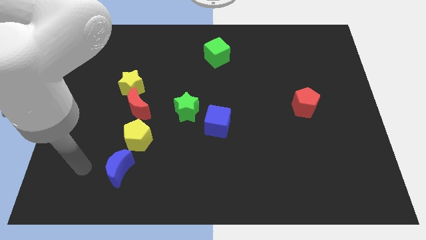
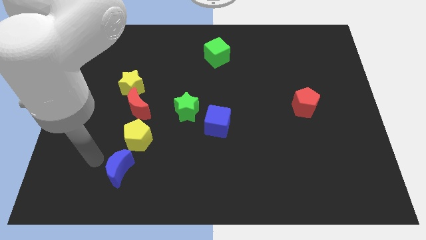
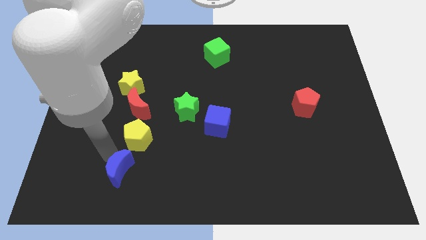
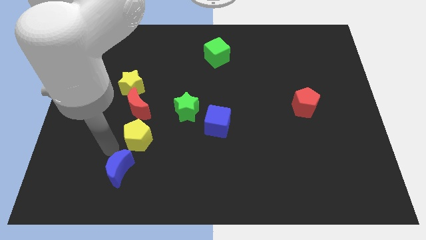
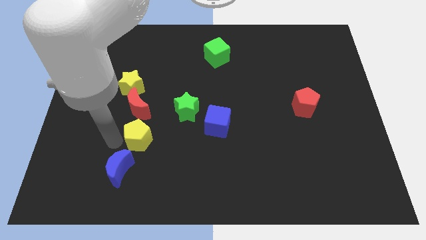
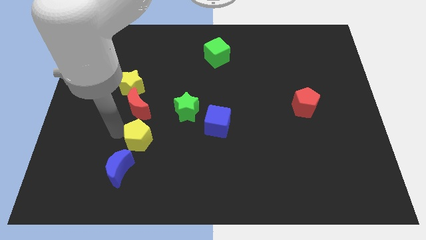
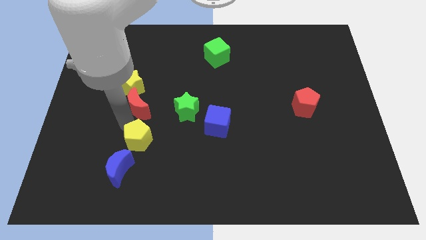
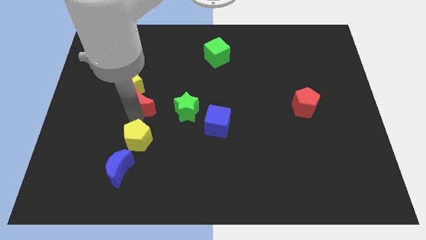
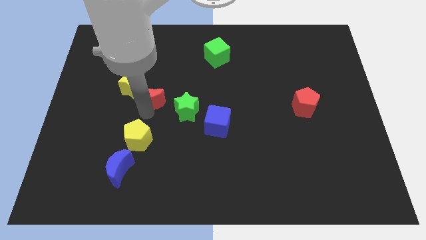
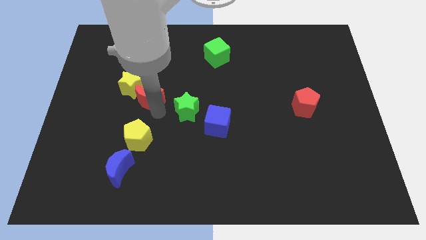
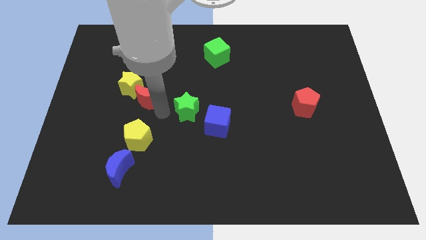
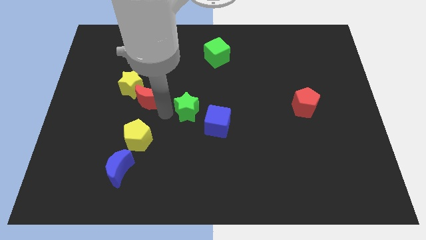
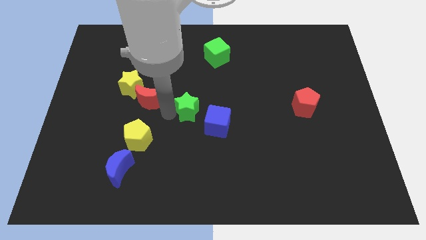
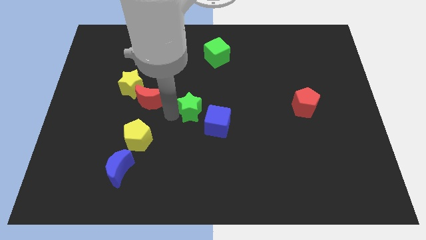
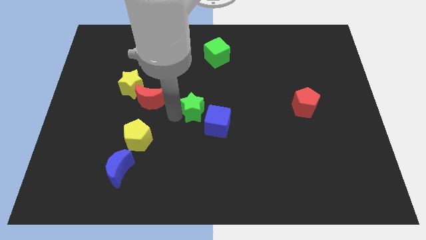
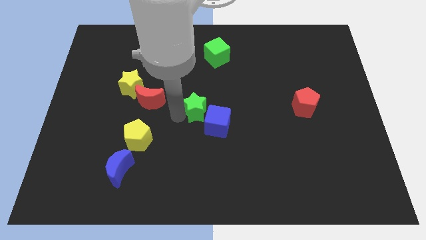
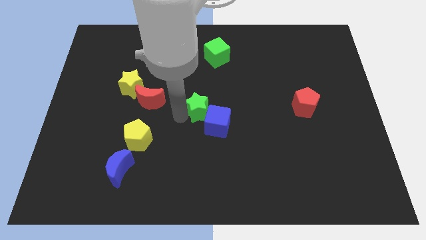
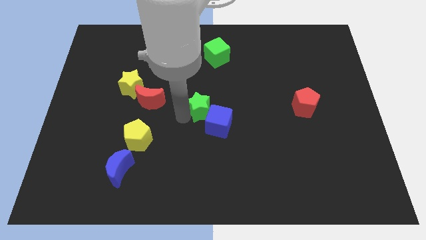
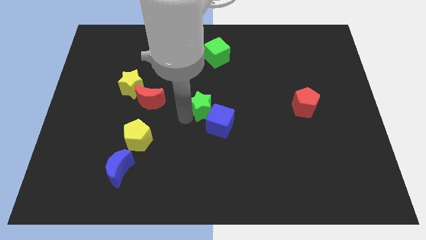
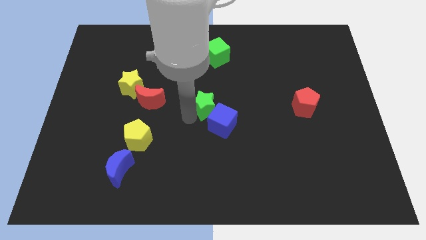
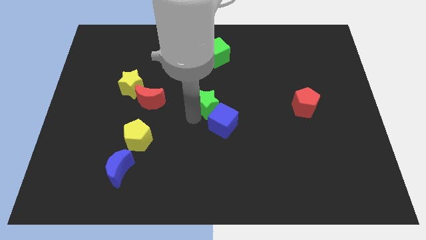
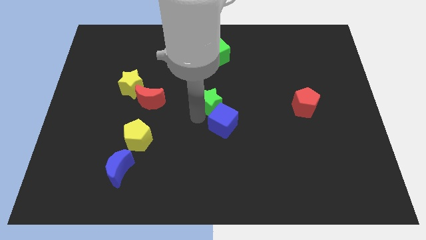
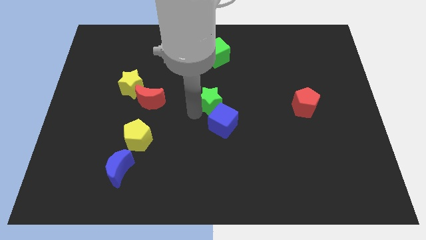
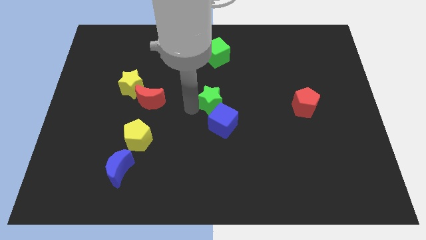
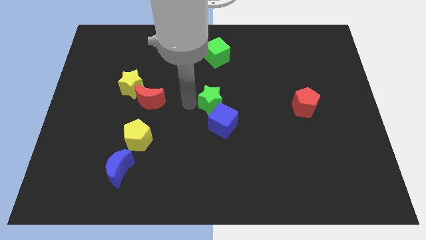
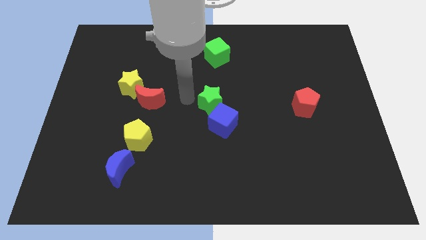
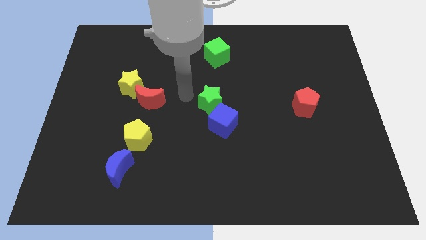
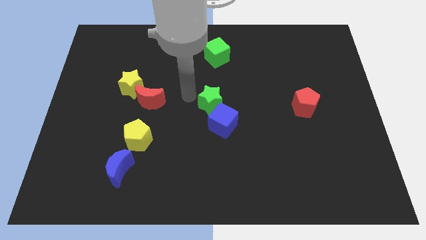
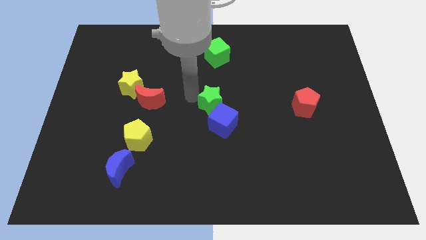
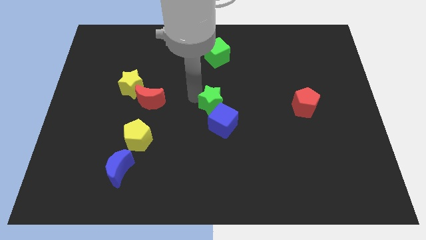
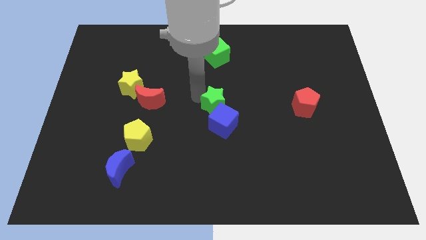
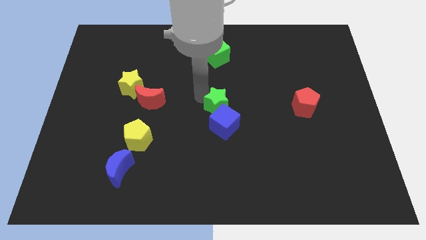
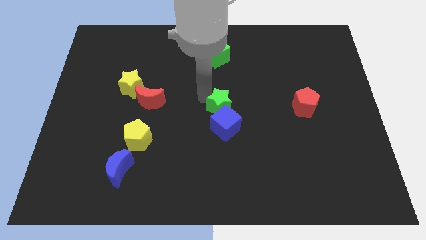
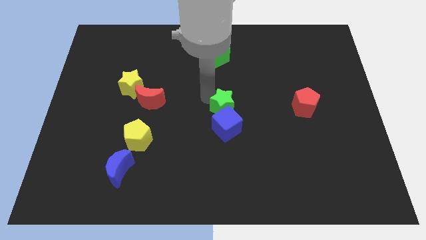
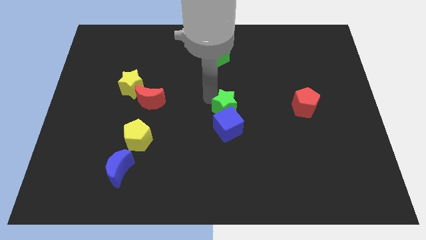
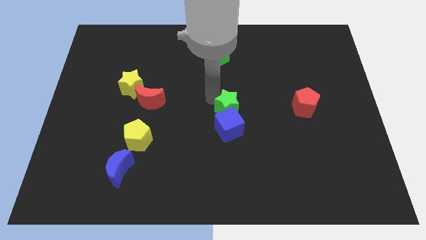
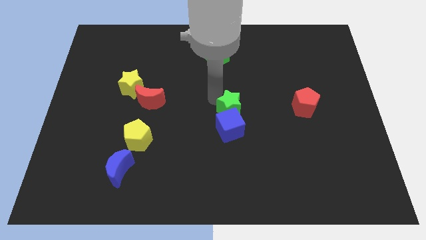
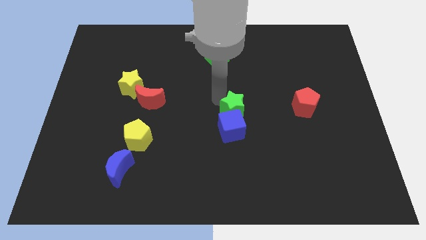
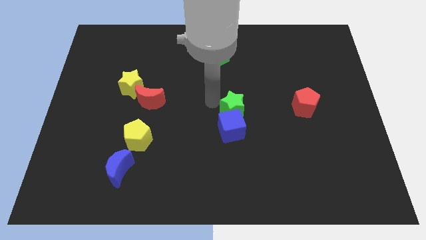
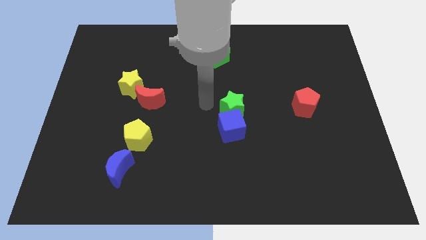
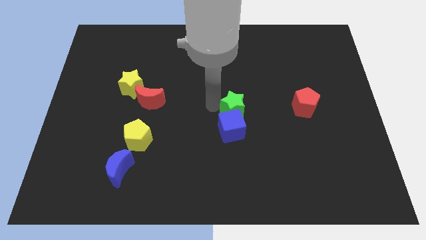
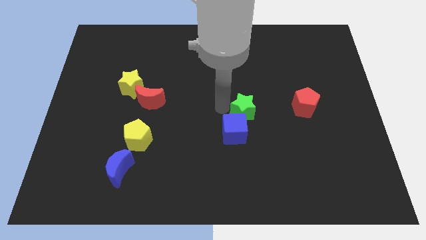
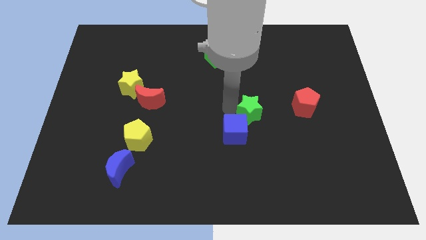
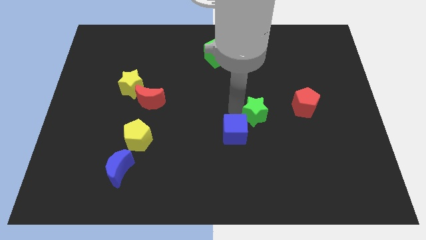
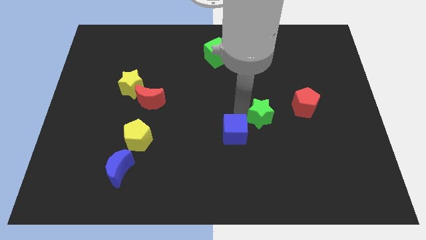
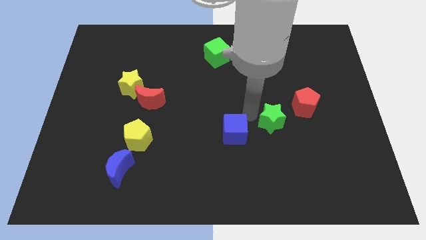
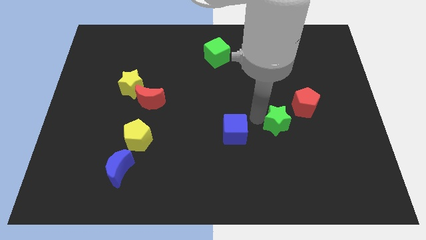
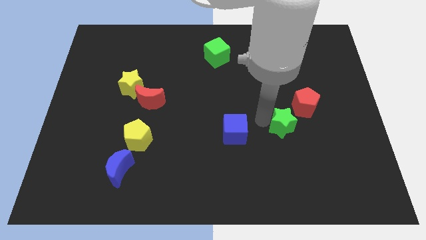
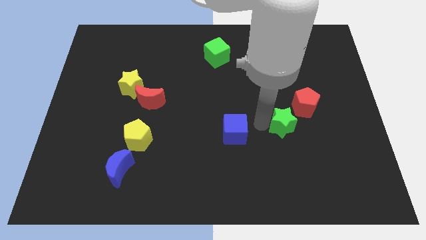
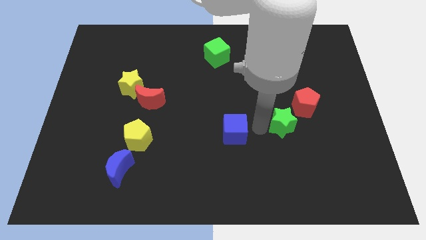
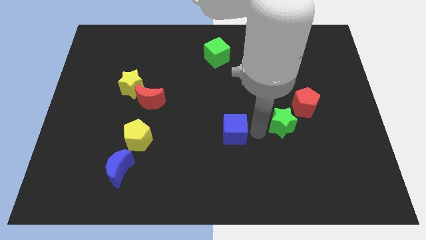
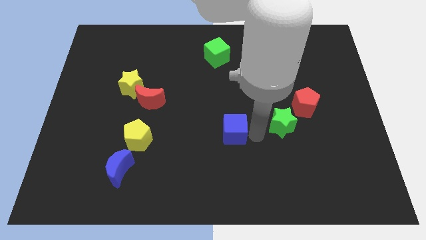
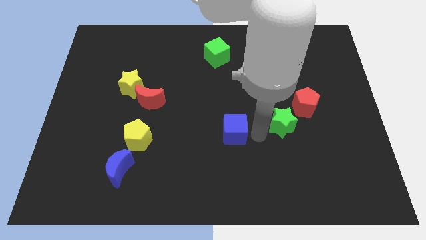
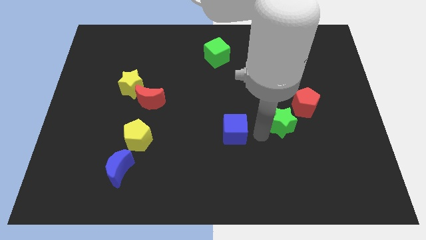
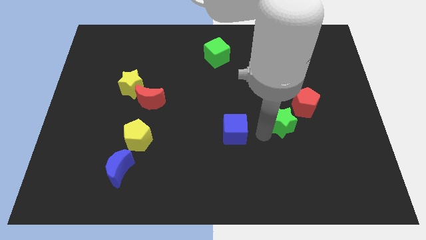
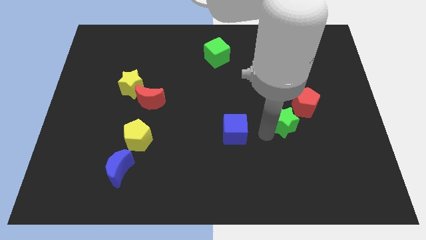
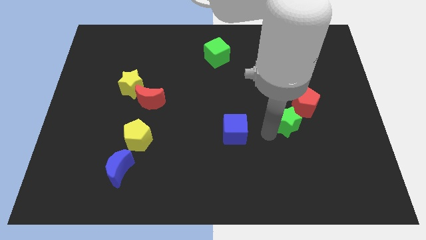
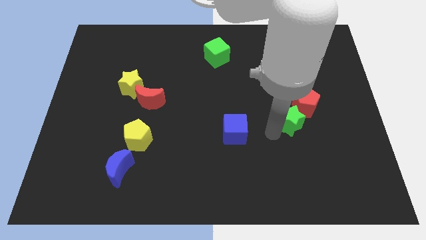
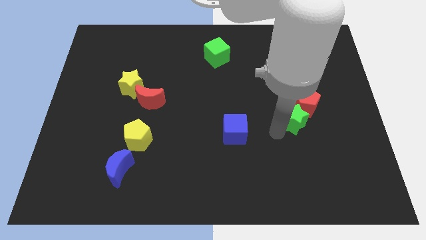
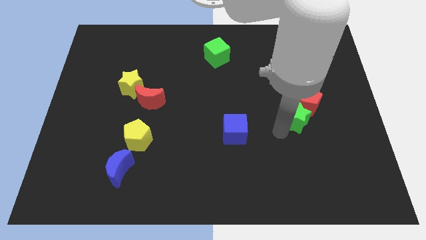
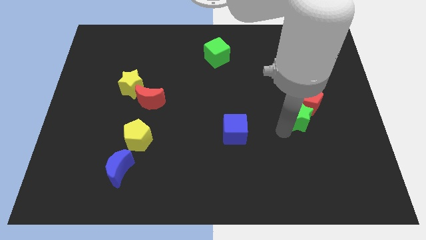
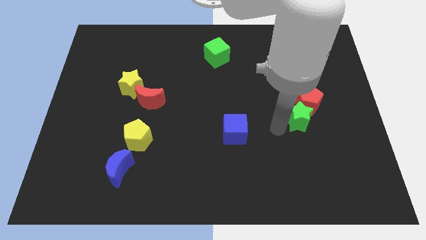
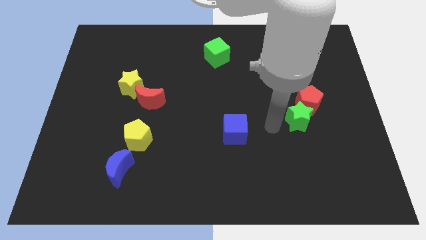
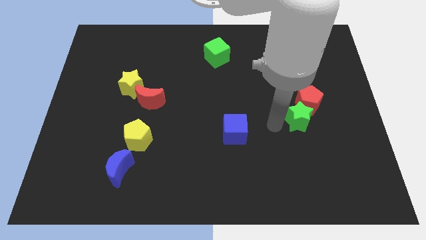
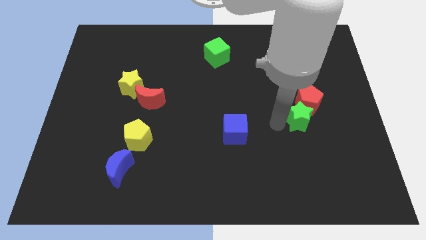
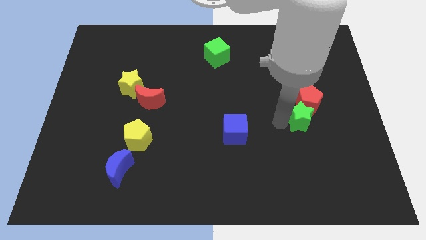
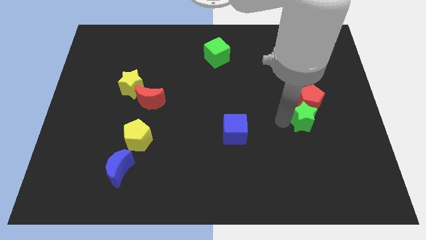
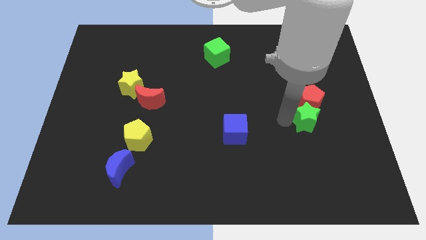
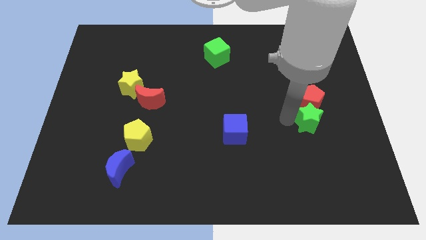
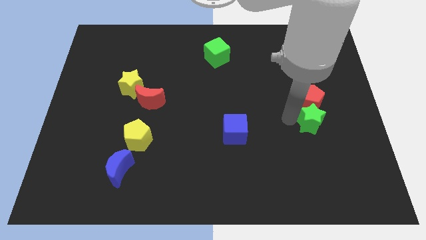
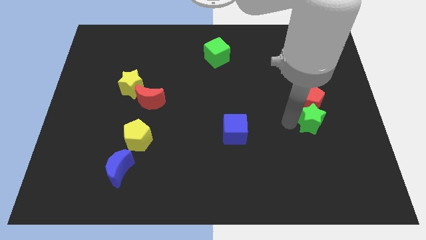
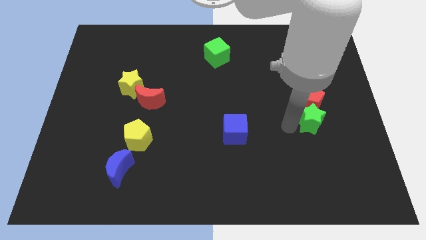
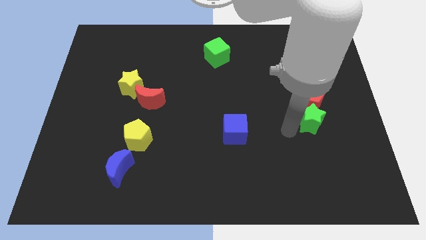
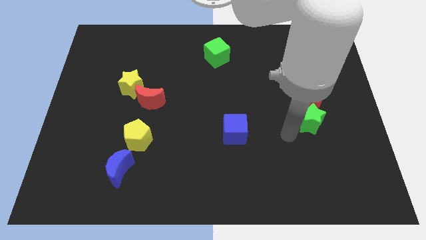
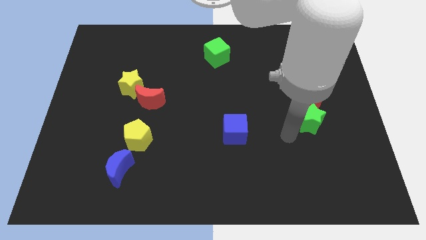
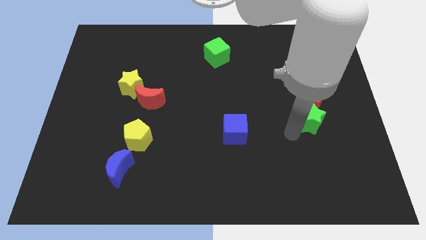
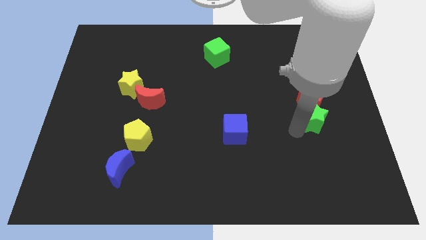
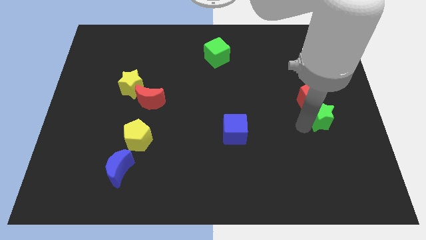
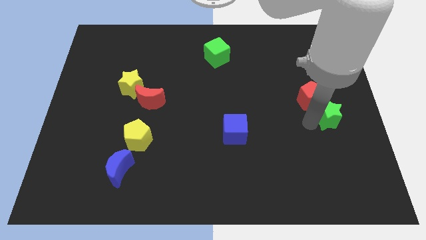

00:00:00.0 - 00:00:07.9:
put the green star to the right side of the board
